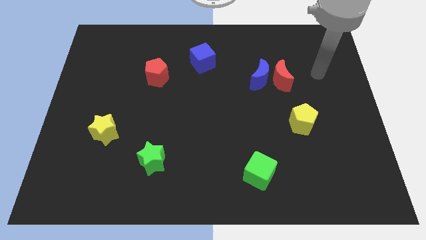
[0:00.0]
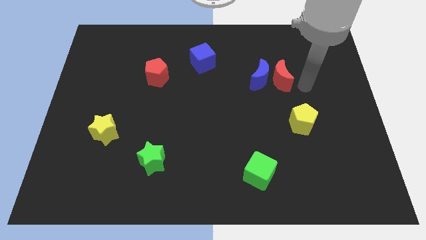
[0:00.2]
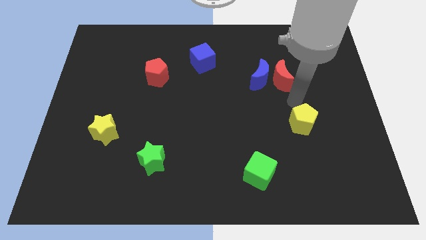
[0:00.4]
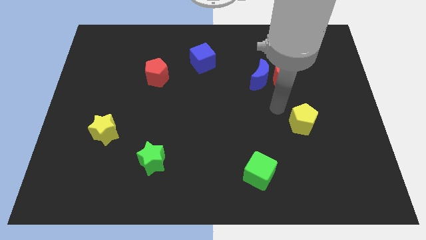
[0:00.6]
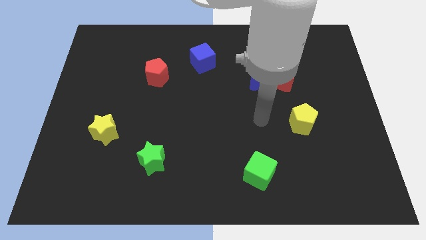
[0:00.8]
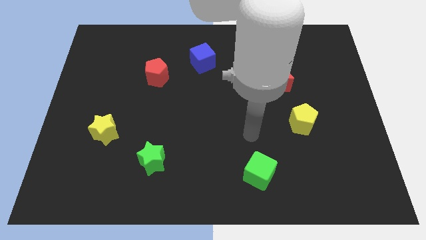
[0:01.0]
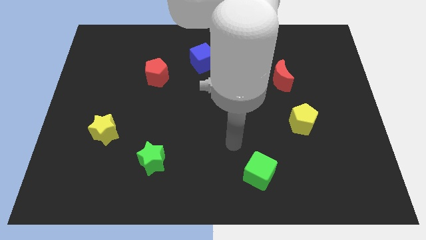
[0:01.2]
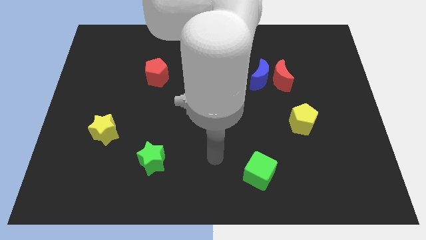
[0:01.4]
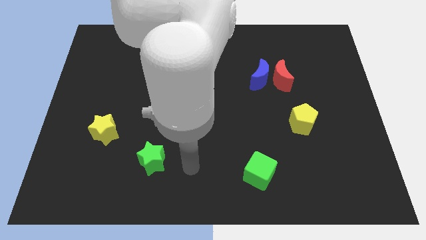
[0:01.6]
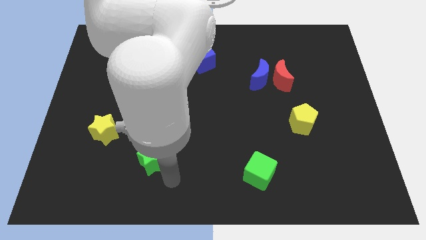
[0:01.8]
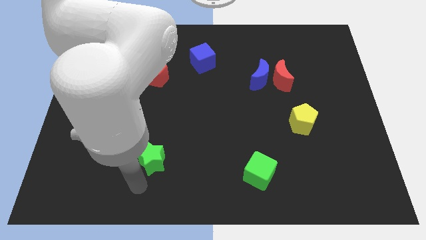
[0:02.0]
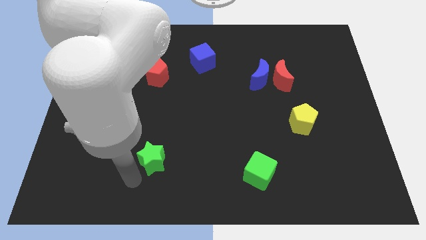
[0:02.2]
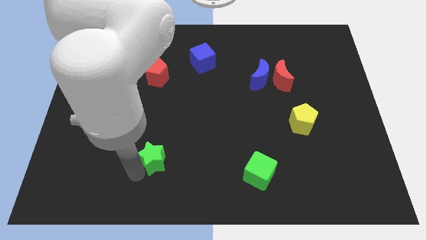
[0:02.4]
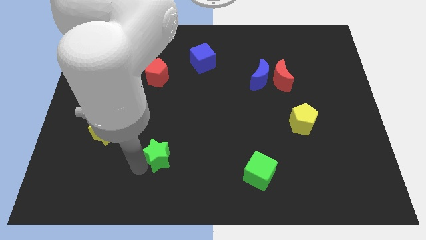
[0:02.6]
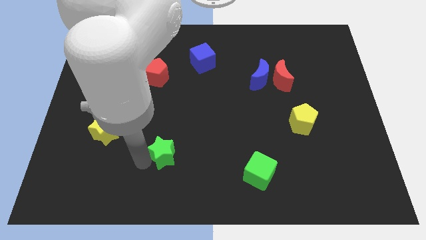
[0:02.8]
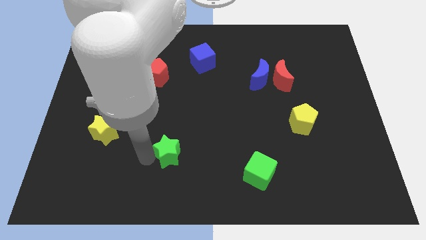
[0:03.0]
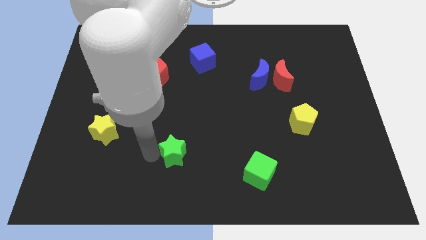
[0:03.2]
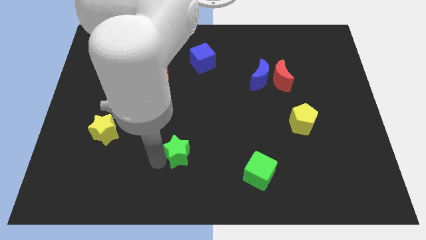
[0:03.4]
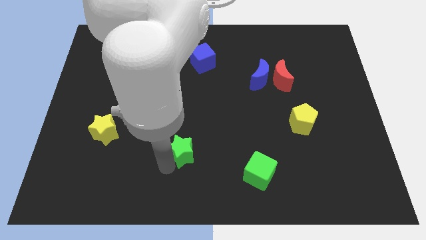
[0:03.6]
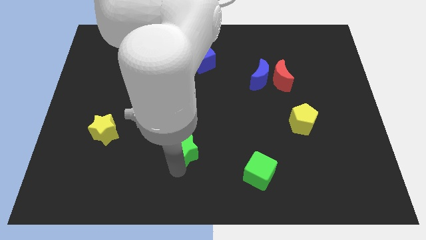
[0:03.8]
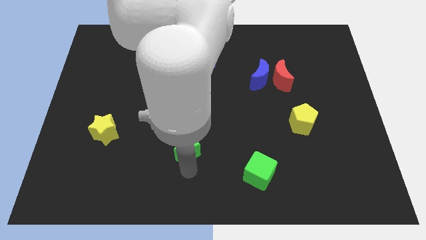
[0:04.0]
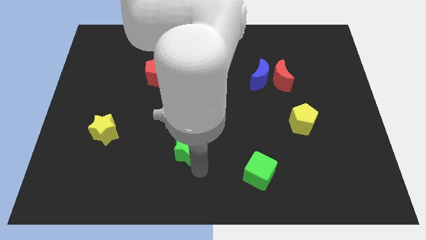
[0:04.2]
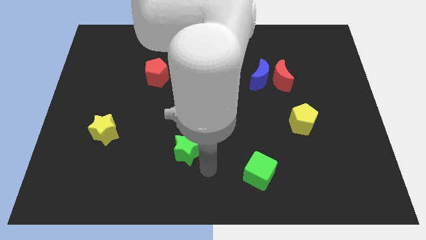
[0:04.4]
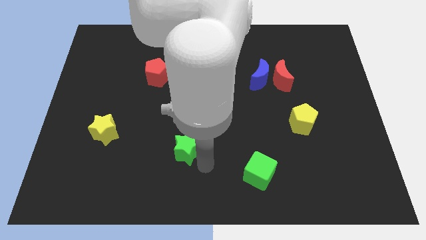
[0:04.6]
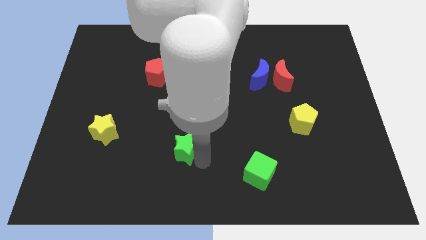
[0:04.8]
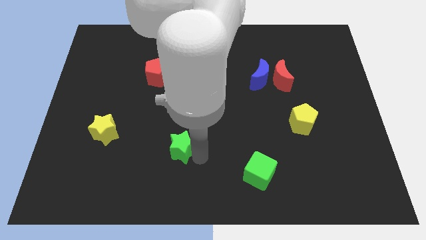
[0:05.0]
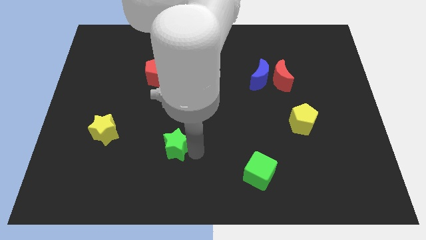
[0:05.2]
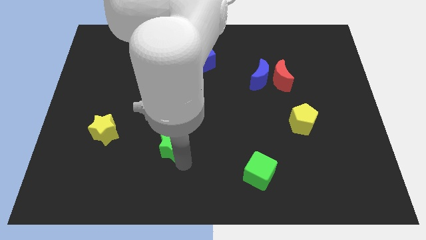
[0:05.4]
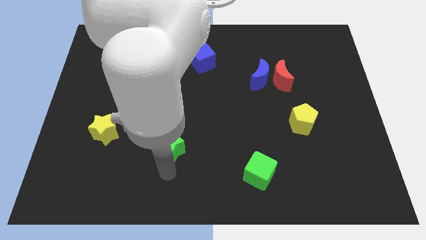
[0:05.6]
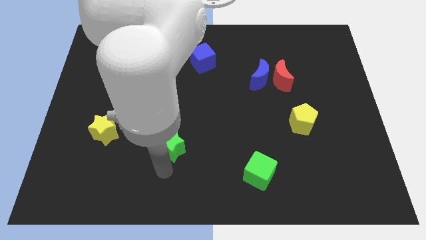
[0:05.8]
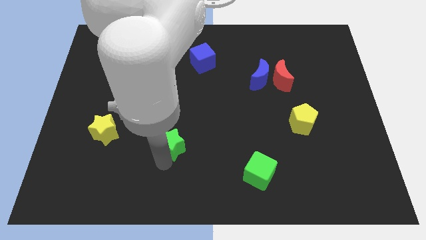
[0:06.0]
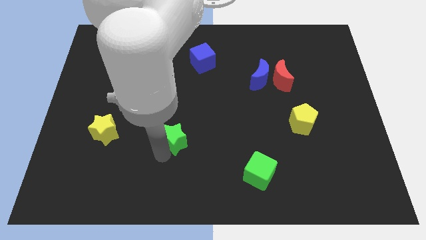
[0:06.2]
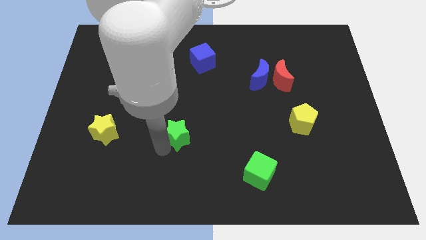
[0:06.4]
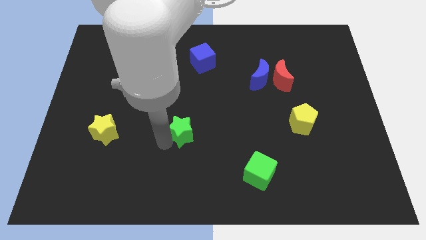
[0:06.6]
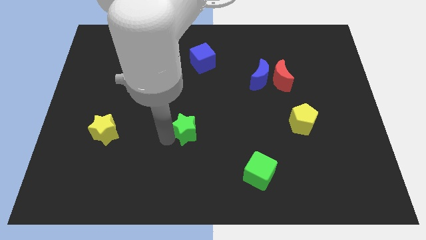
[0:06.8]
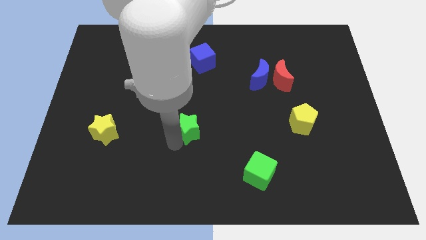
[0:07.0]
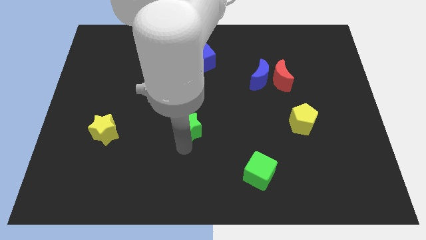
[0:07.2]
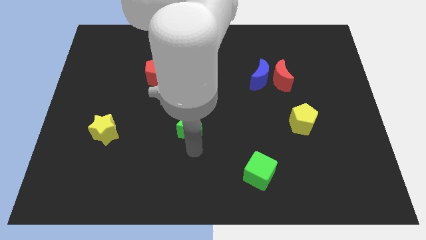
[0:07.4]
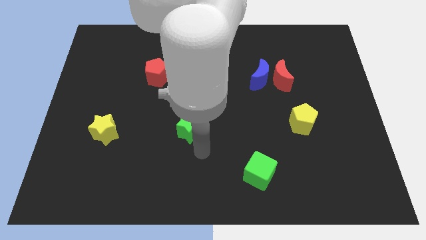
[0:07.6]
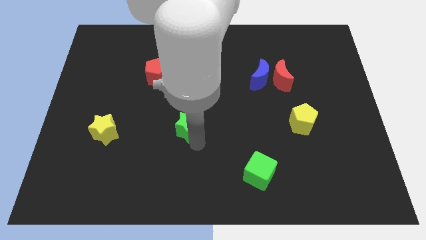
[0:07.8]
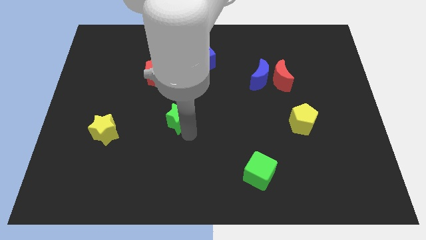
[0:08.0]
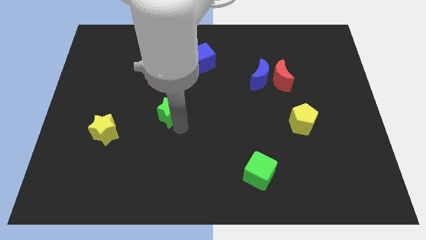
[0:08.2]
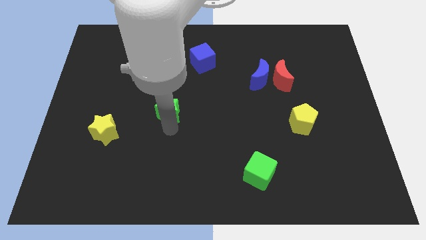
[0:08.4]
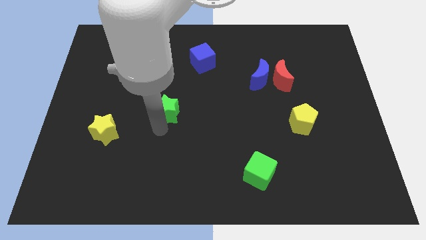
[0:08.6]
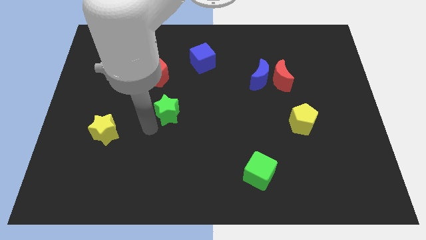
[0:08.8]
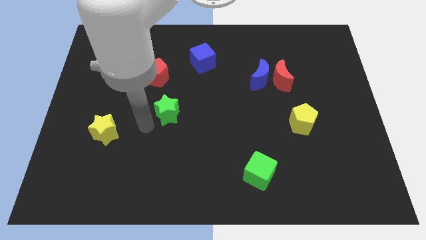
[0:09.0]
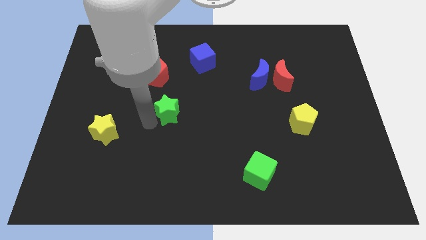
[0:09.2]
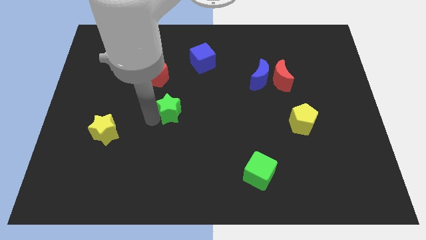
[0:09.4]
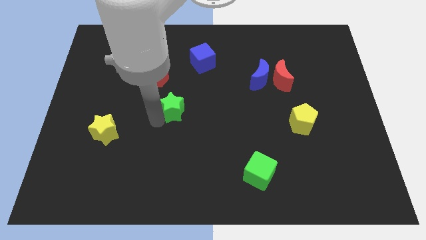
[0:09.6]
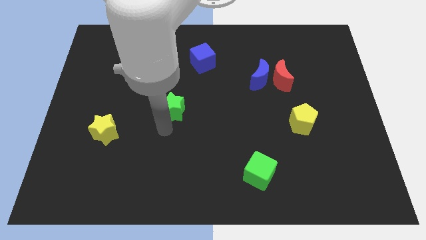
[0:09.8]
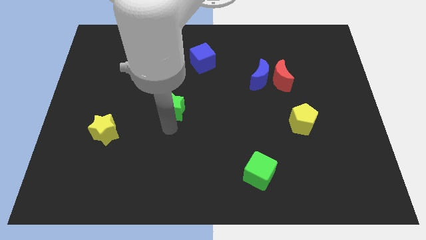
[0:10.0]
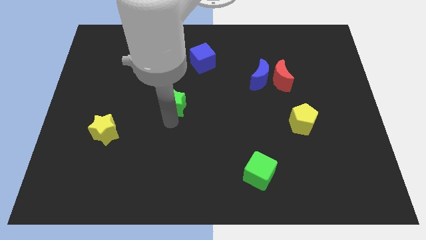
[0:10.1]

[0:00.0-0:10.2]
slide the green star diagonally down and to the right of the red pentagon

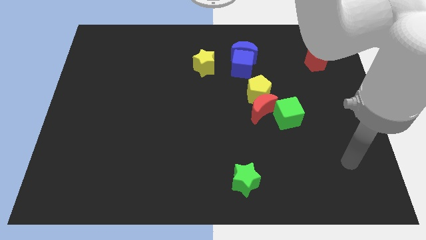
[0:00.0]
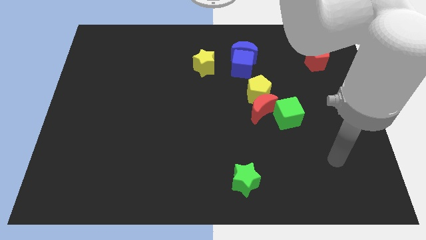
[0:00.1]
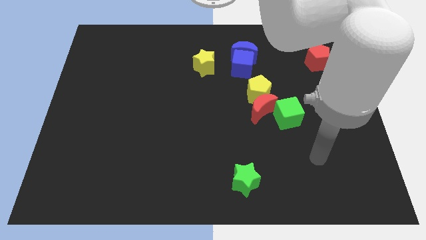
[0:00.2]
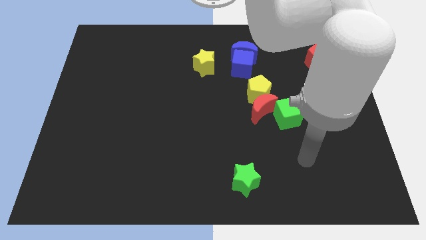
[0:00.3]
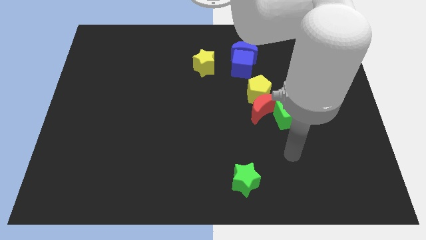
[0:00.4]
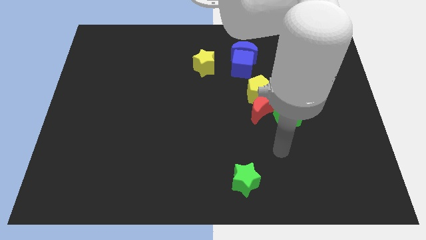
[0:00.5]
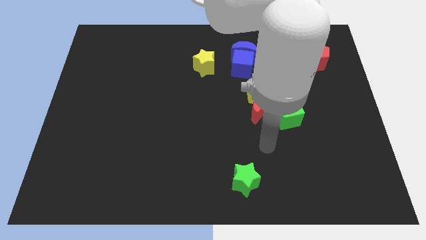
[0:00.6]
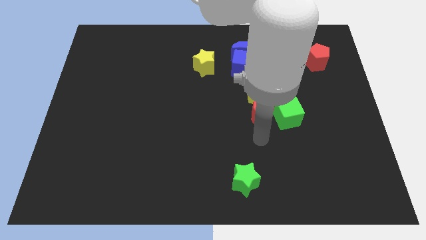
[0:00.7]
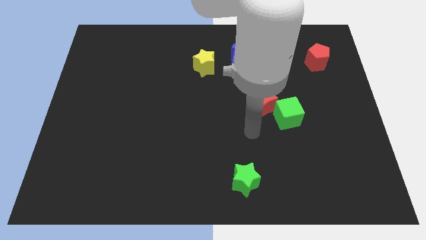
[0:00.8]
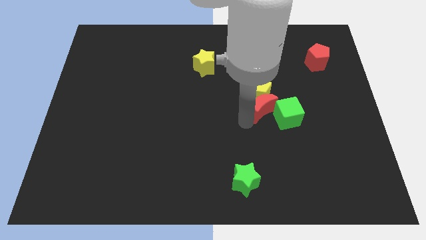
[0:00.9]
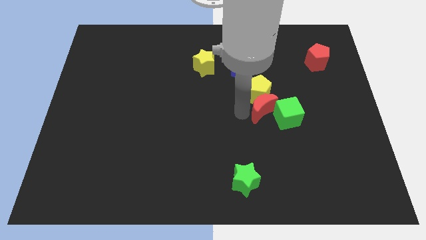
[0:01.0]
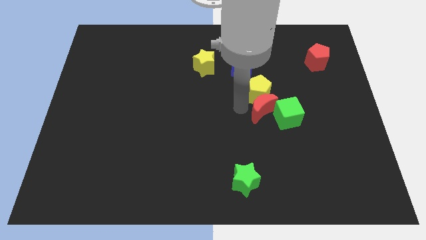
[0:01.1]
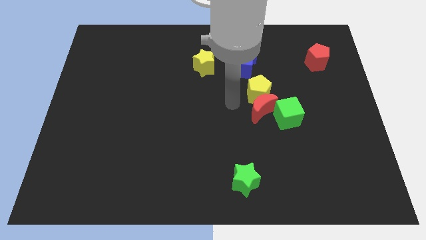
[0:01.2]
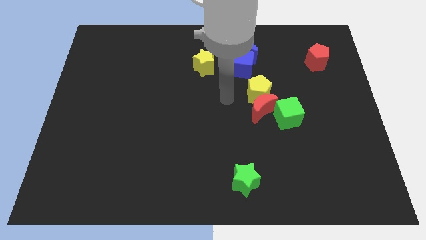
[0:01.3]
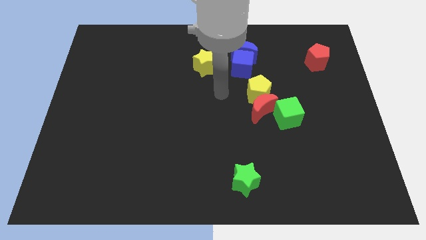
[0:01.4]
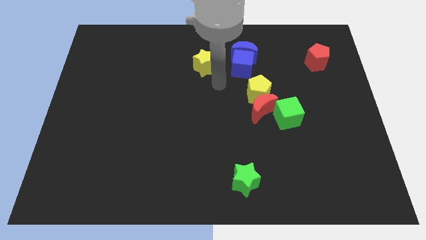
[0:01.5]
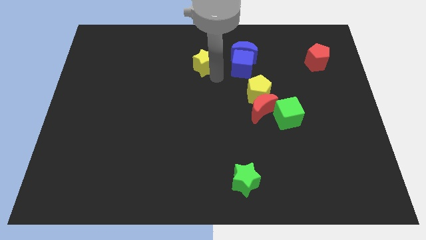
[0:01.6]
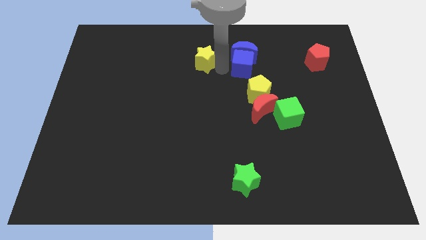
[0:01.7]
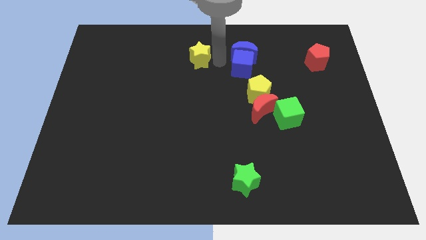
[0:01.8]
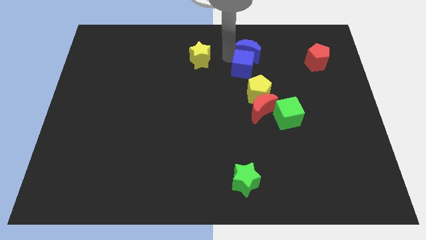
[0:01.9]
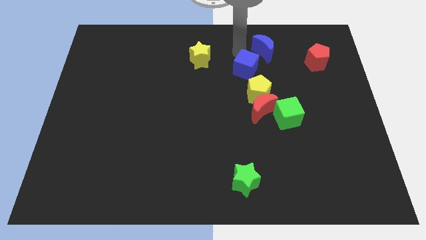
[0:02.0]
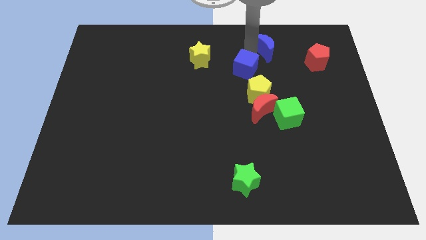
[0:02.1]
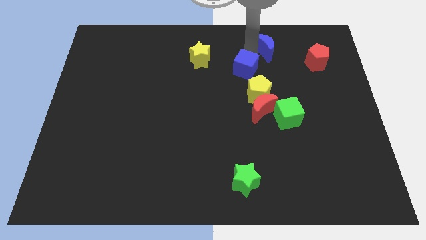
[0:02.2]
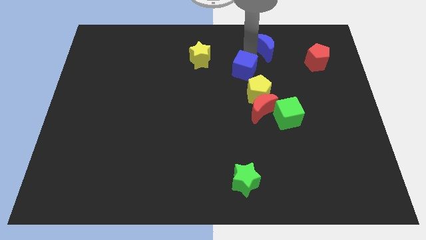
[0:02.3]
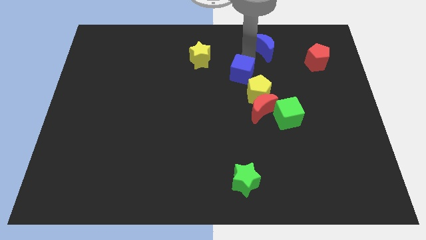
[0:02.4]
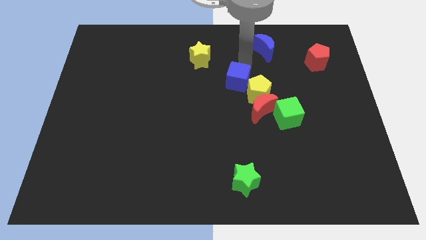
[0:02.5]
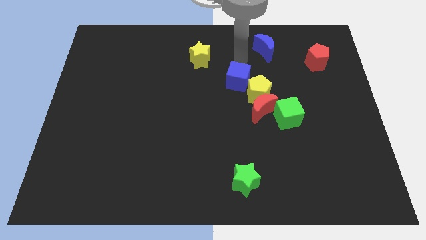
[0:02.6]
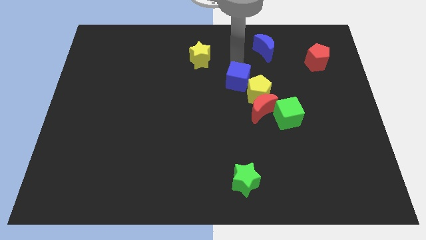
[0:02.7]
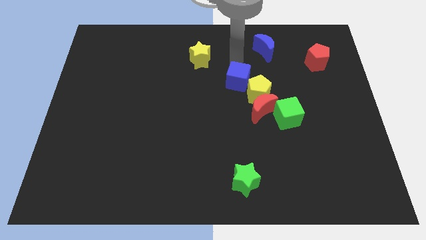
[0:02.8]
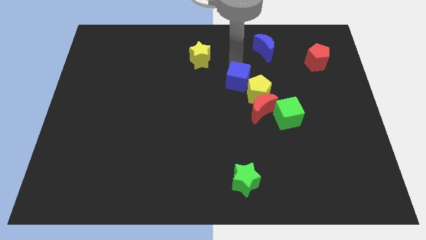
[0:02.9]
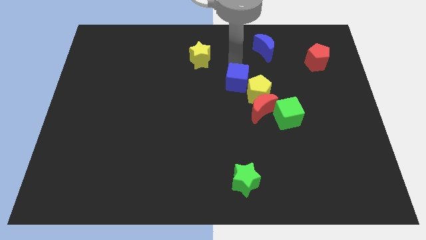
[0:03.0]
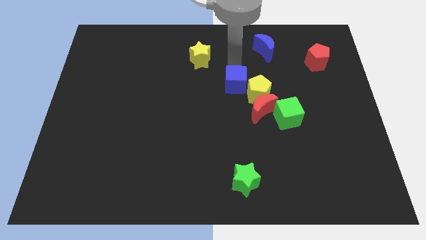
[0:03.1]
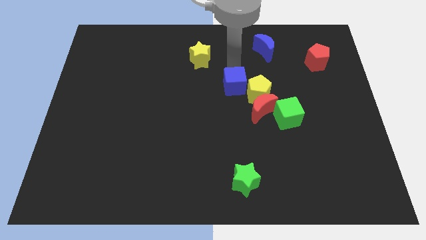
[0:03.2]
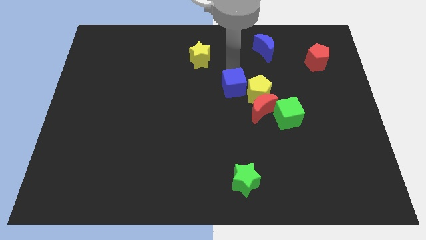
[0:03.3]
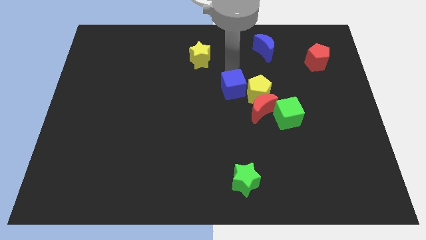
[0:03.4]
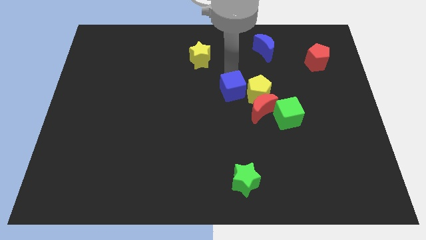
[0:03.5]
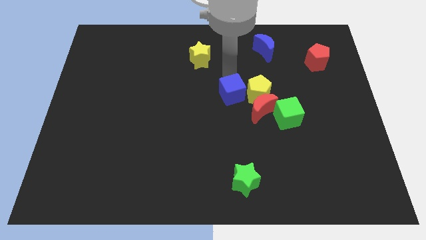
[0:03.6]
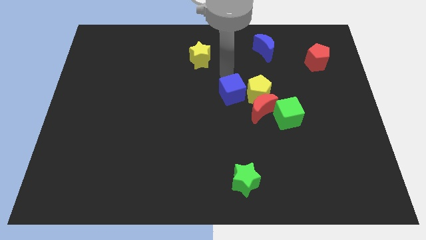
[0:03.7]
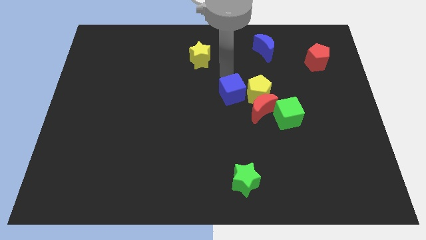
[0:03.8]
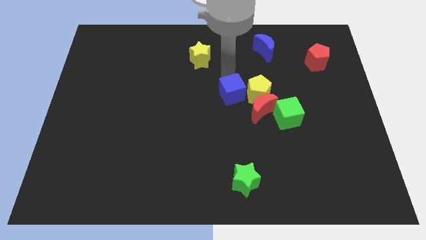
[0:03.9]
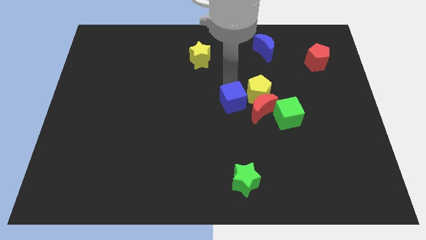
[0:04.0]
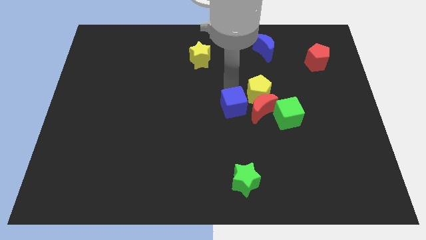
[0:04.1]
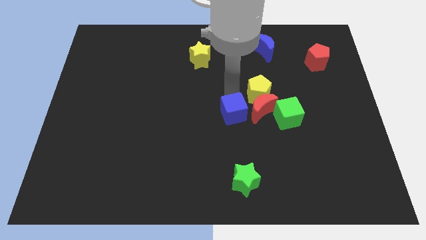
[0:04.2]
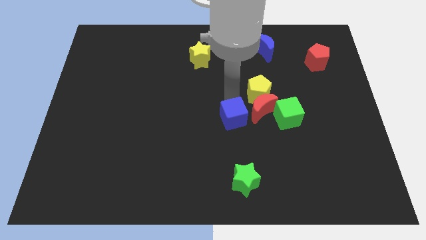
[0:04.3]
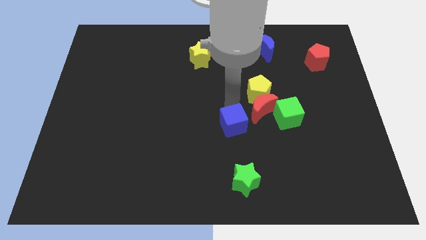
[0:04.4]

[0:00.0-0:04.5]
slide the blue cube above the green star
